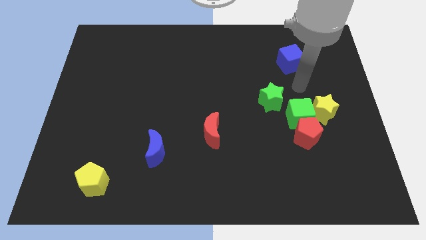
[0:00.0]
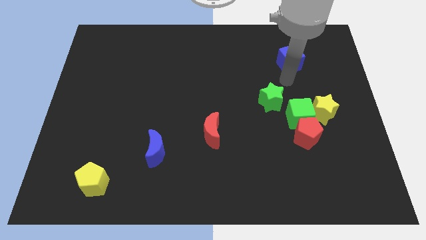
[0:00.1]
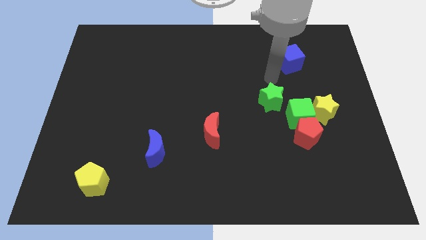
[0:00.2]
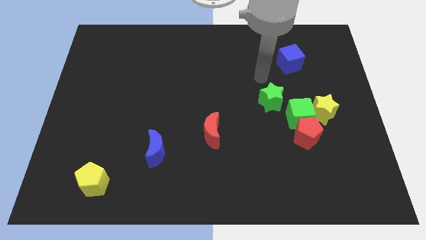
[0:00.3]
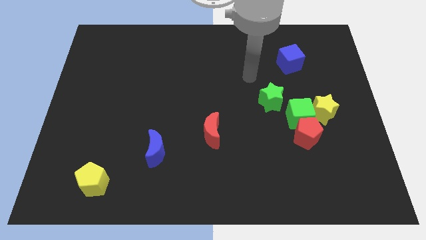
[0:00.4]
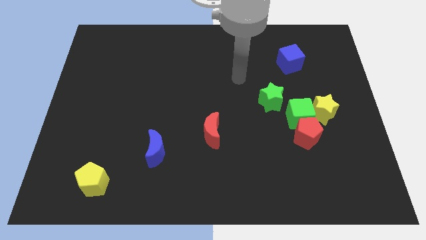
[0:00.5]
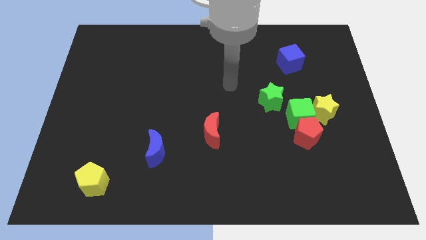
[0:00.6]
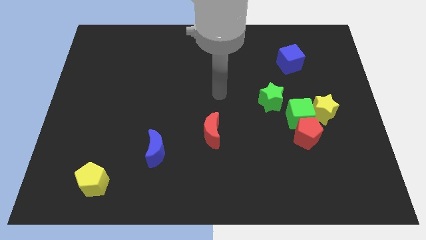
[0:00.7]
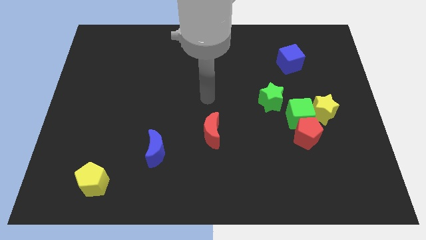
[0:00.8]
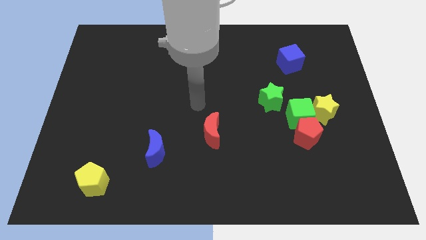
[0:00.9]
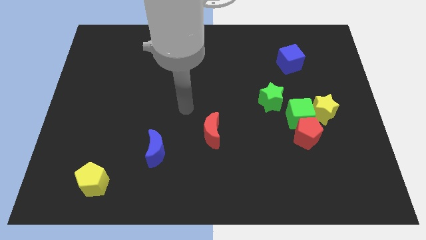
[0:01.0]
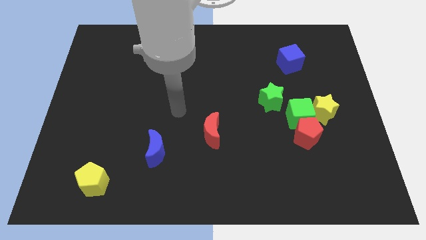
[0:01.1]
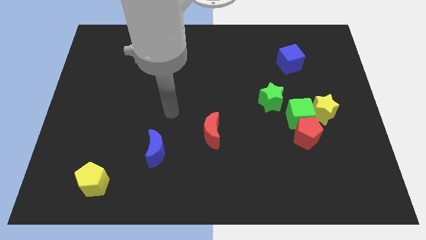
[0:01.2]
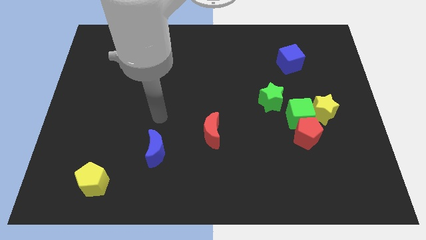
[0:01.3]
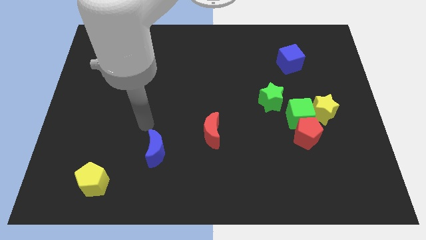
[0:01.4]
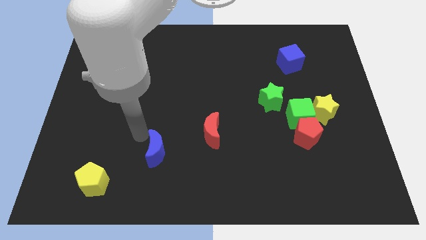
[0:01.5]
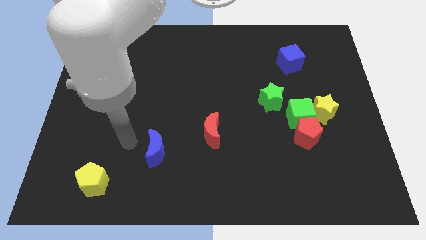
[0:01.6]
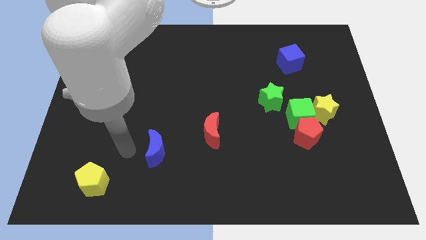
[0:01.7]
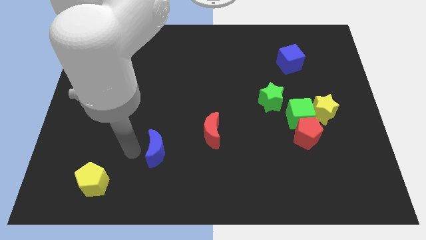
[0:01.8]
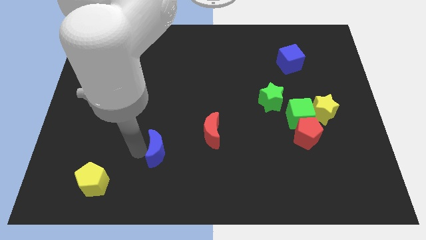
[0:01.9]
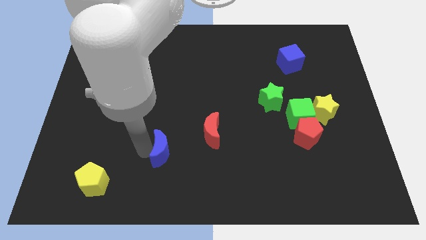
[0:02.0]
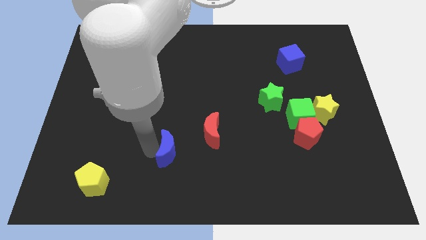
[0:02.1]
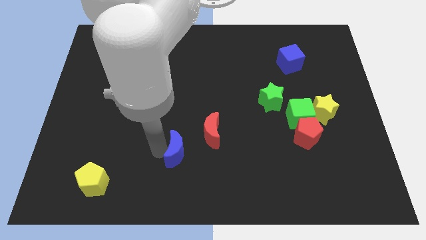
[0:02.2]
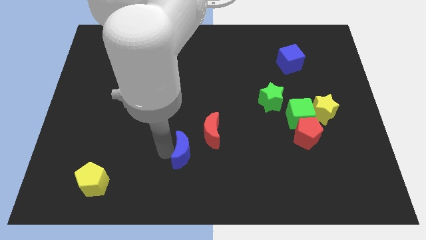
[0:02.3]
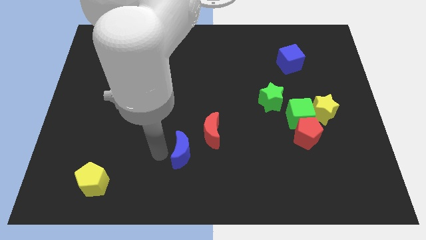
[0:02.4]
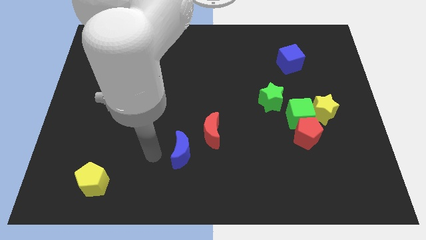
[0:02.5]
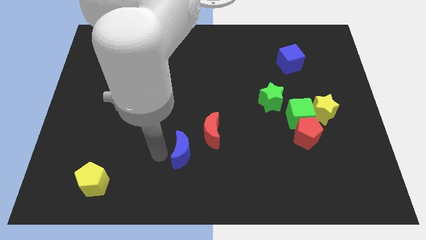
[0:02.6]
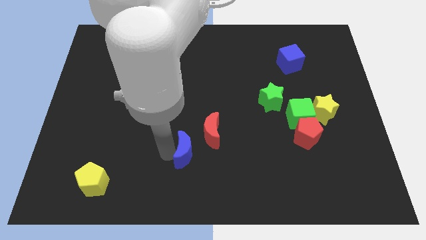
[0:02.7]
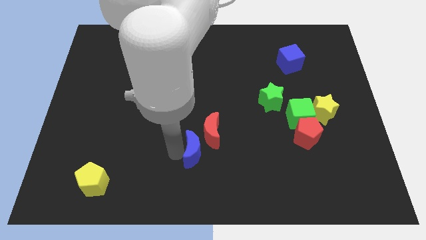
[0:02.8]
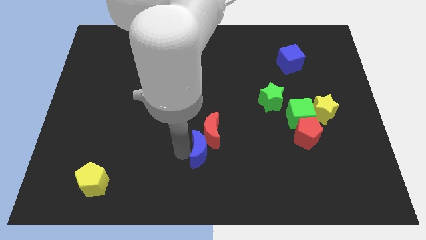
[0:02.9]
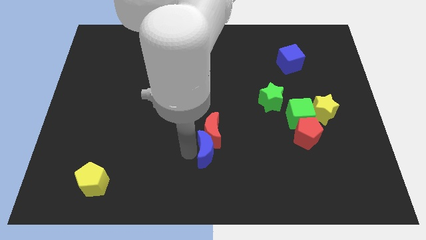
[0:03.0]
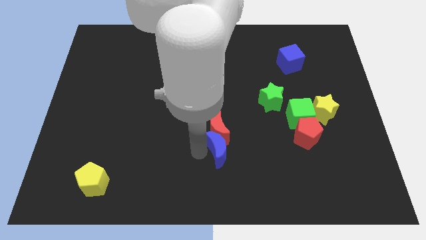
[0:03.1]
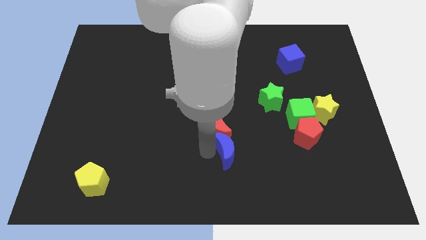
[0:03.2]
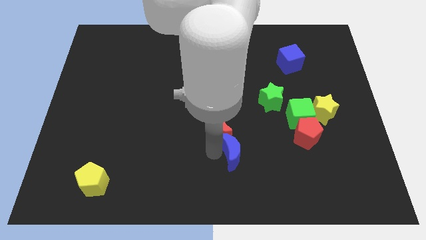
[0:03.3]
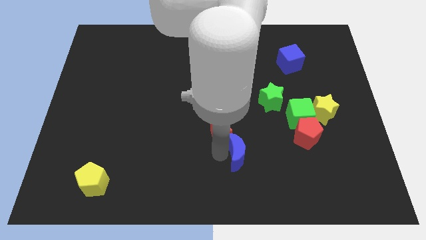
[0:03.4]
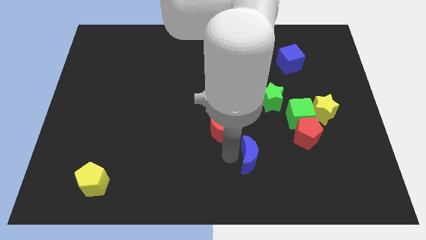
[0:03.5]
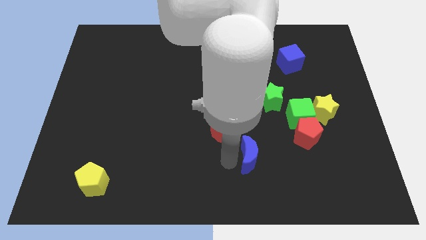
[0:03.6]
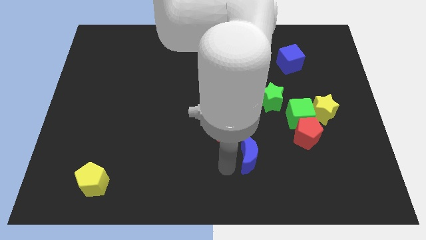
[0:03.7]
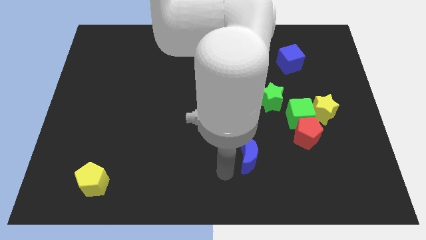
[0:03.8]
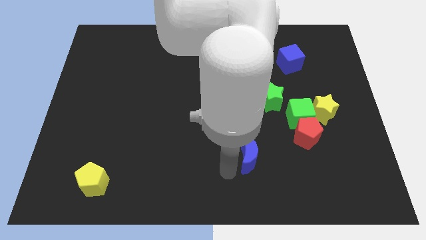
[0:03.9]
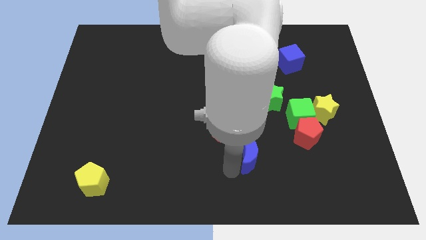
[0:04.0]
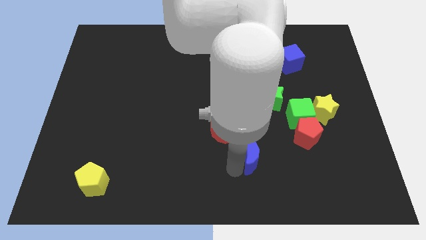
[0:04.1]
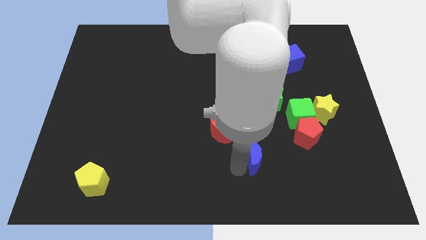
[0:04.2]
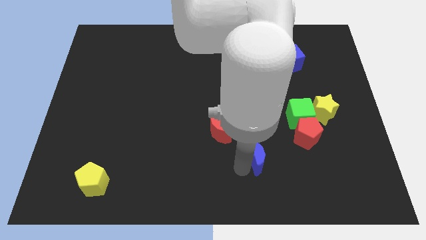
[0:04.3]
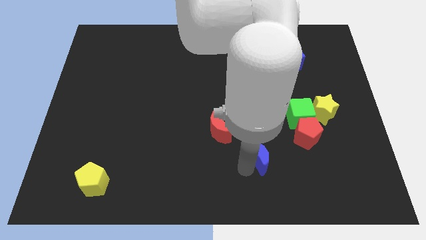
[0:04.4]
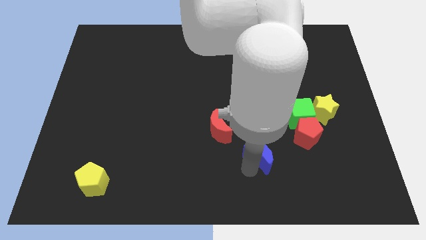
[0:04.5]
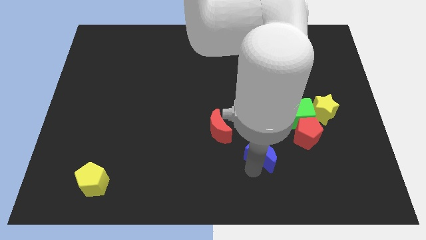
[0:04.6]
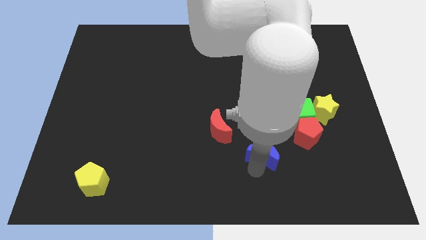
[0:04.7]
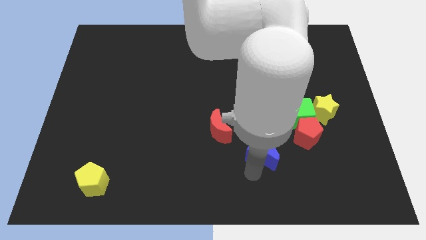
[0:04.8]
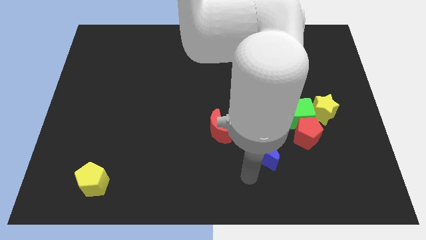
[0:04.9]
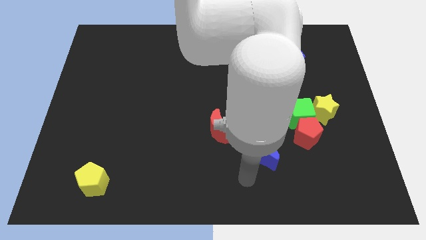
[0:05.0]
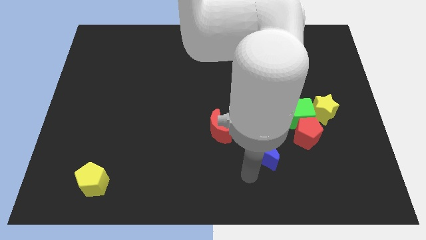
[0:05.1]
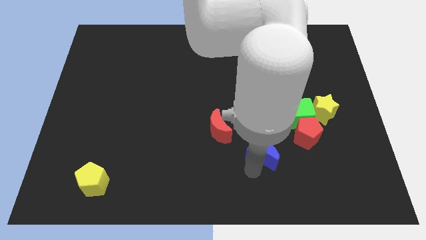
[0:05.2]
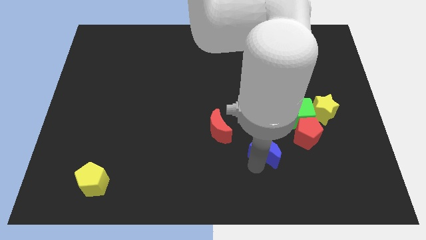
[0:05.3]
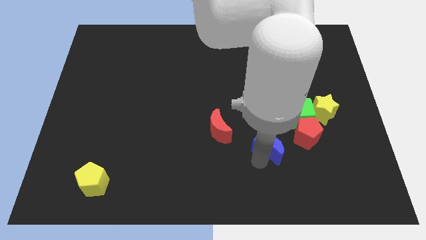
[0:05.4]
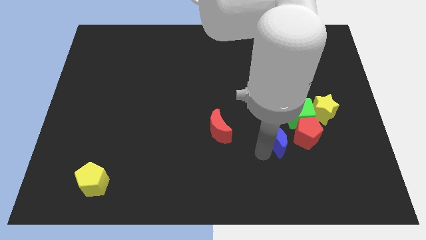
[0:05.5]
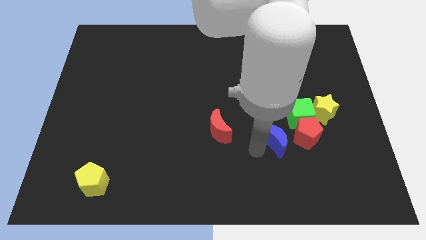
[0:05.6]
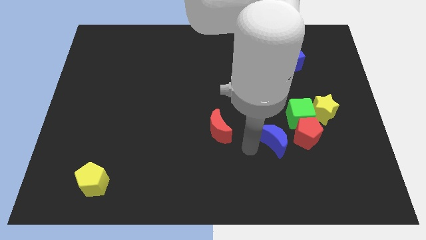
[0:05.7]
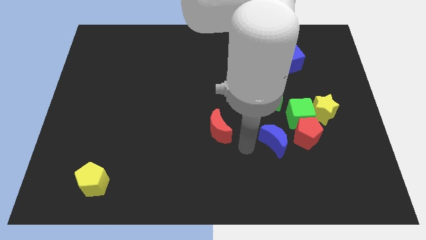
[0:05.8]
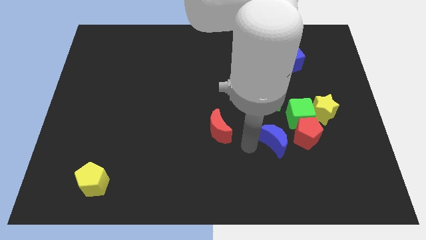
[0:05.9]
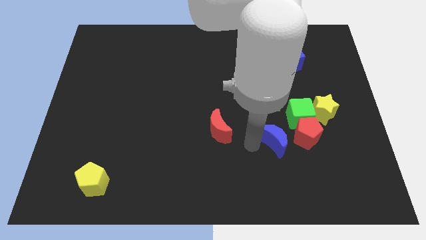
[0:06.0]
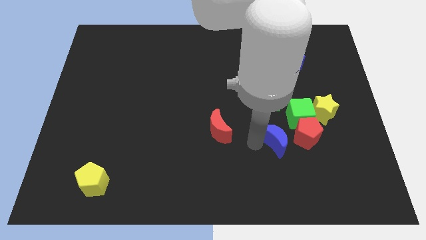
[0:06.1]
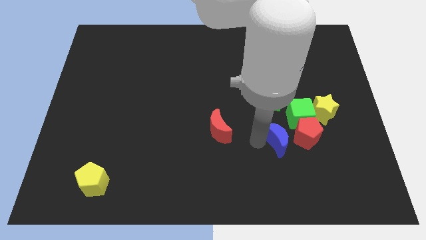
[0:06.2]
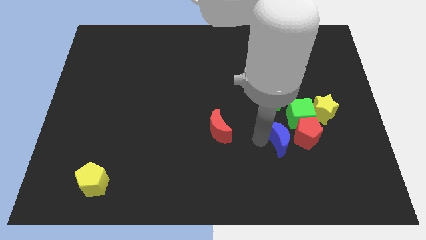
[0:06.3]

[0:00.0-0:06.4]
slide the blue moon close to the red pentagon
